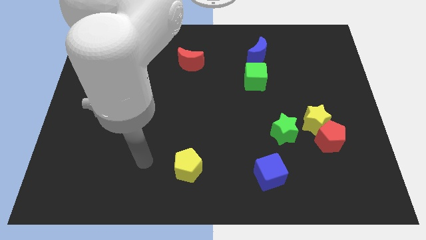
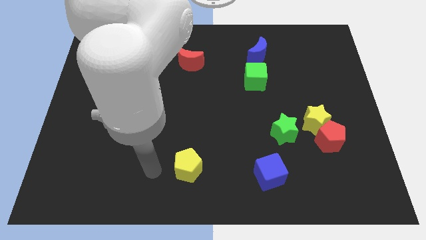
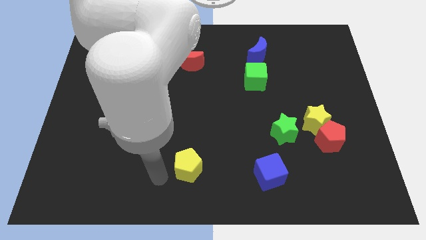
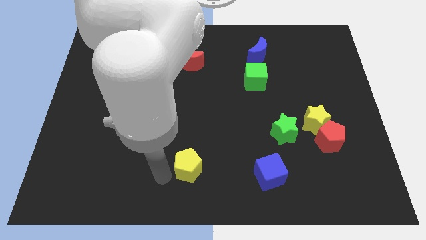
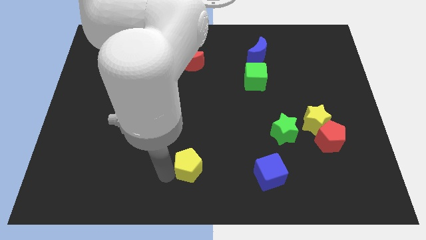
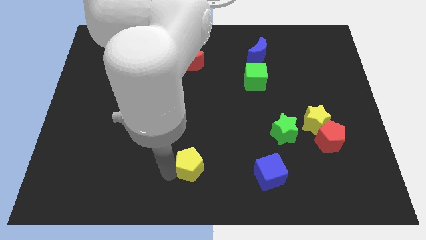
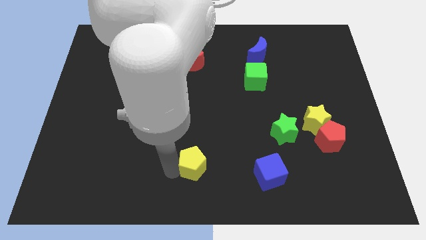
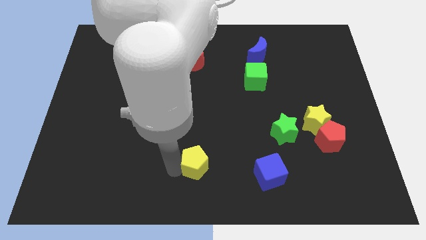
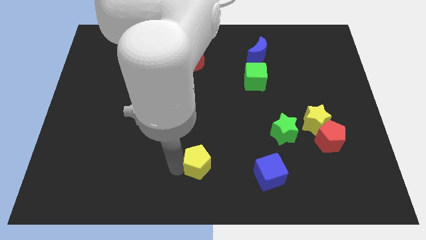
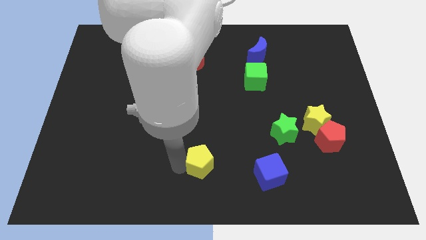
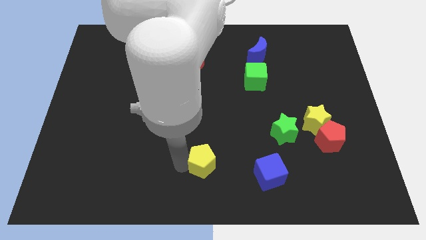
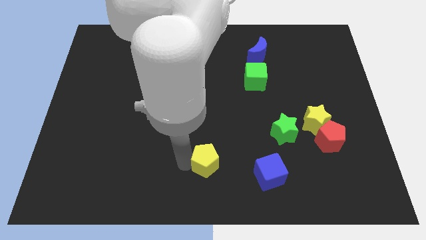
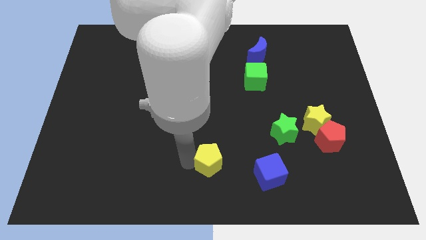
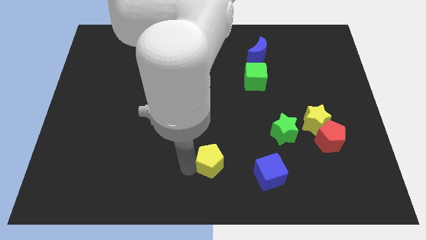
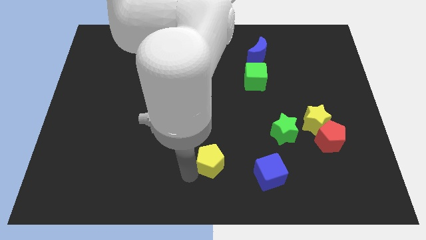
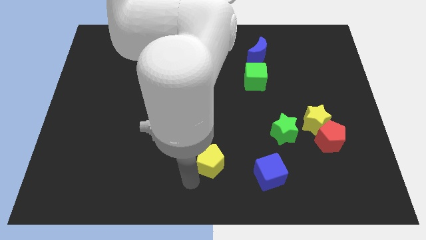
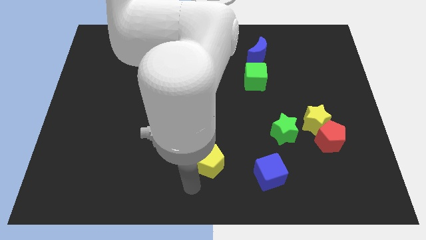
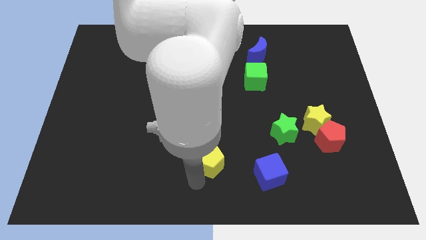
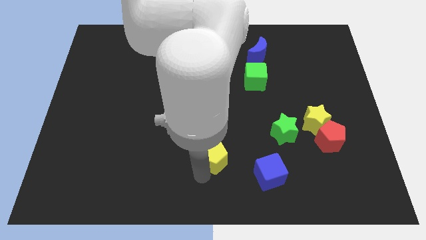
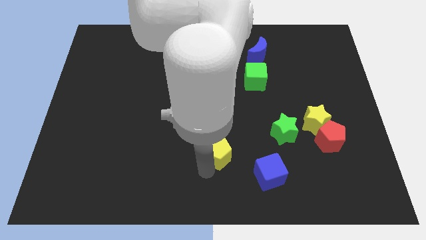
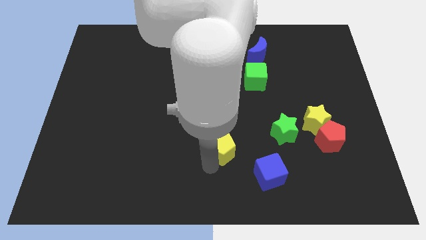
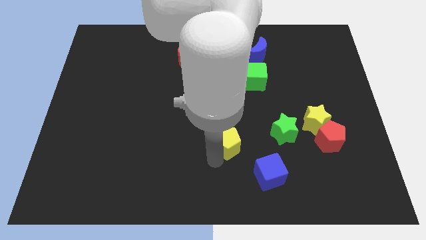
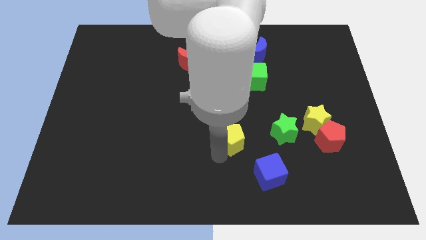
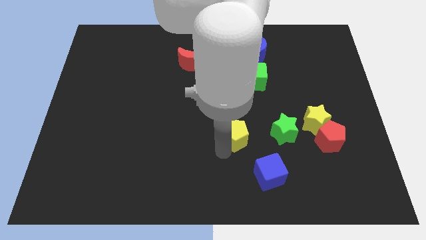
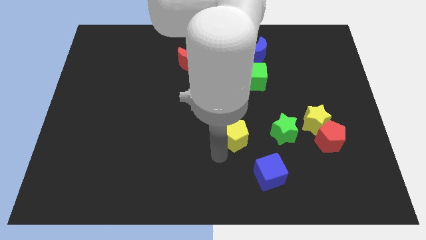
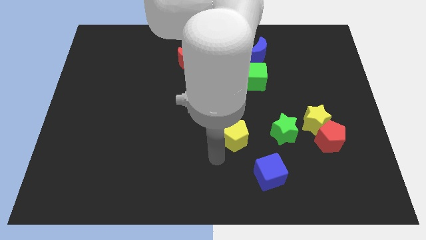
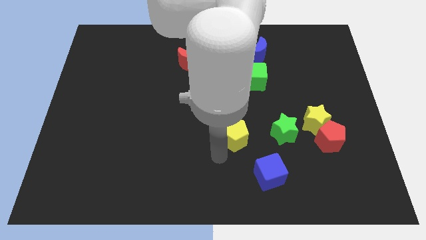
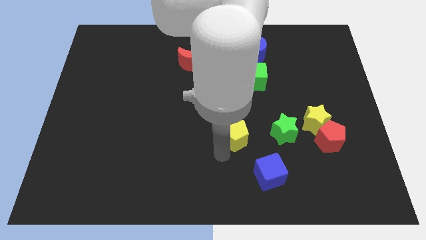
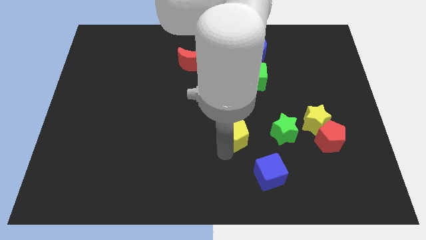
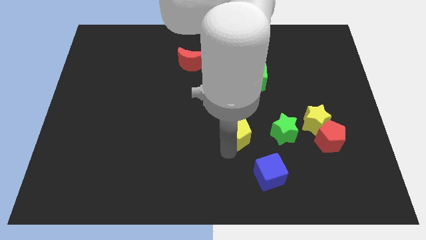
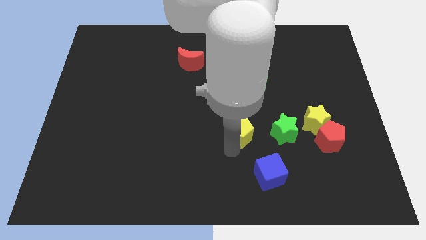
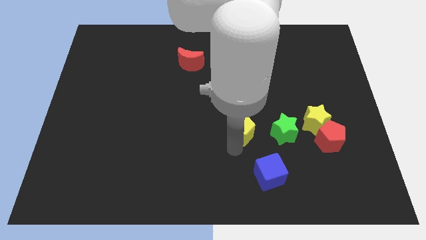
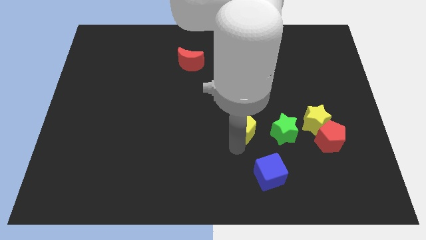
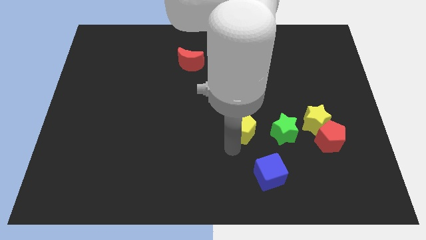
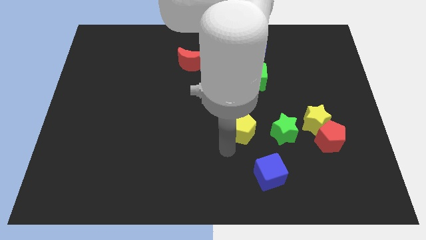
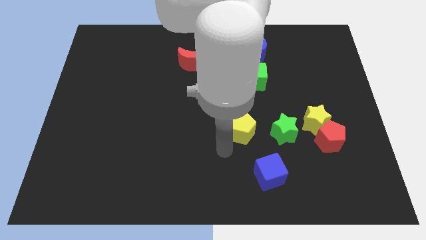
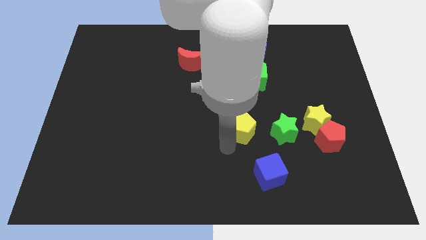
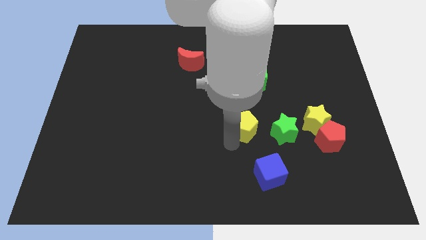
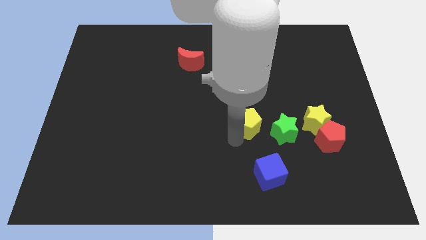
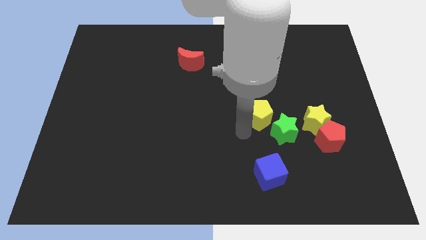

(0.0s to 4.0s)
move the yellow pentagon diagonally upwards and to the right

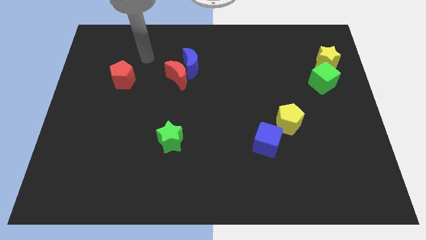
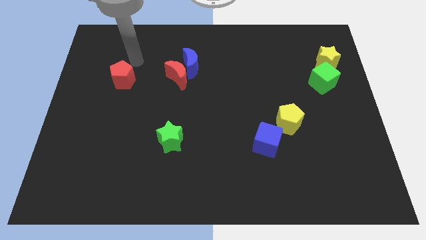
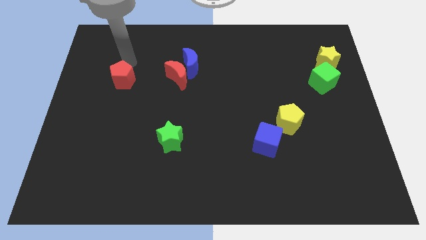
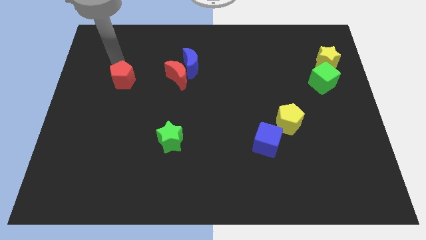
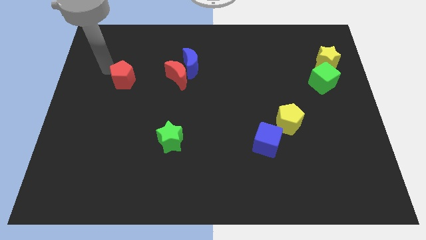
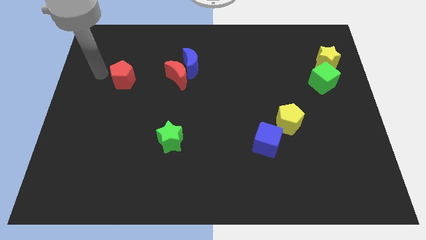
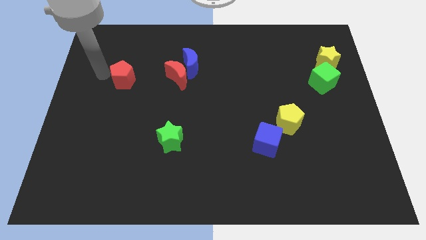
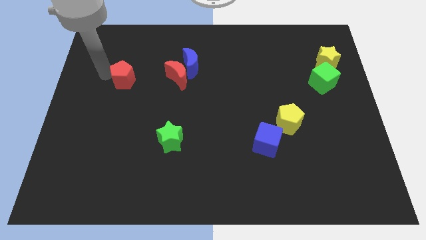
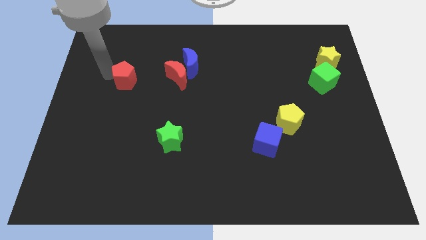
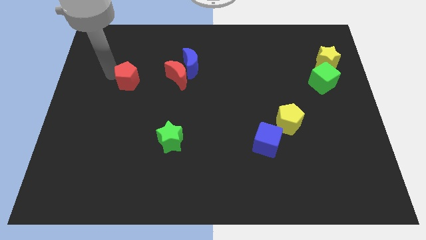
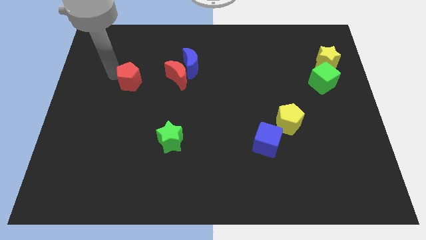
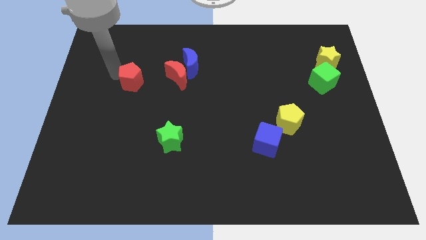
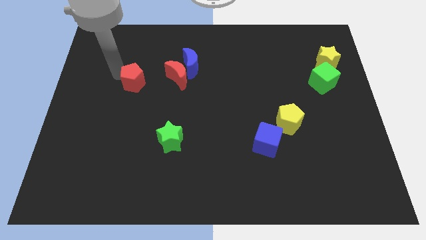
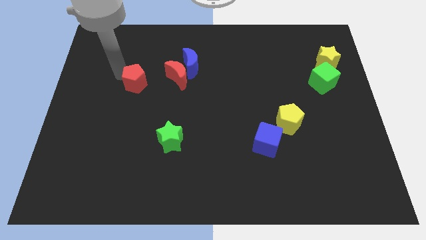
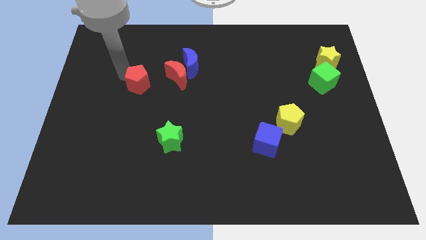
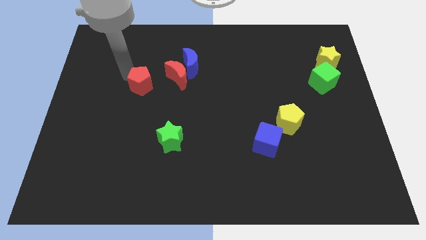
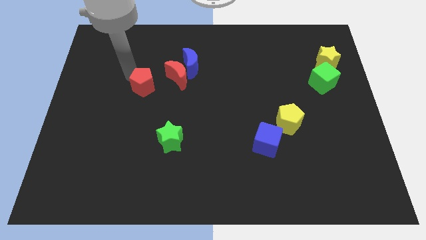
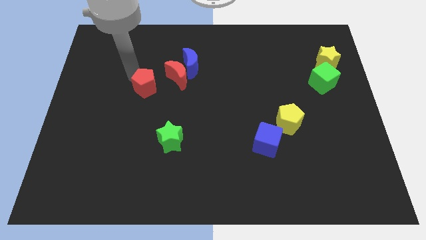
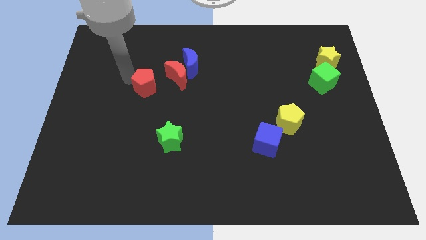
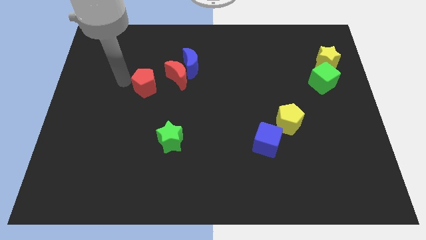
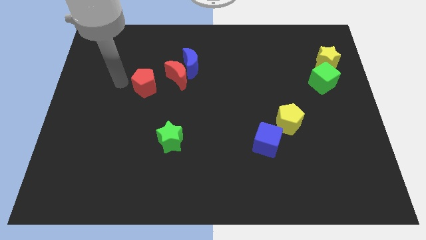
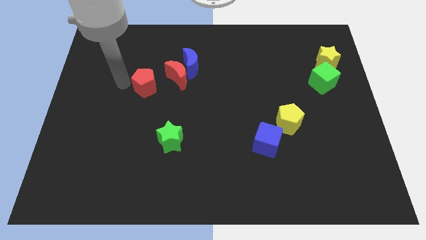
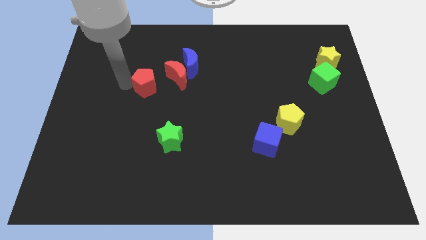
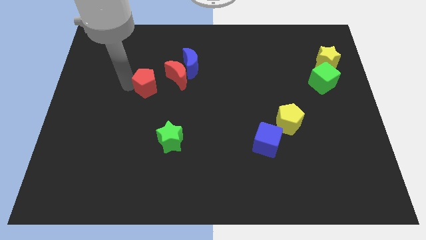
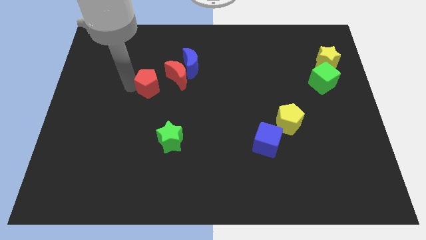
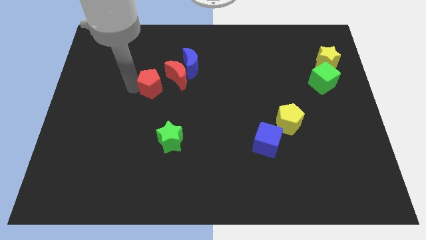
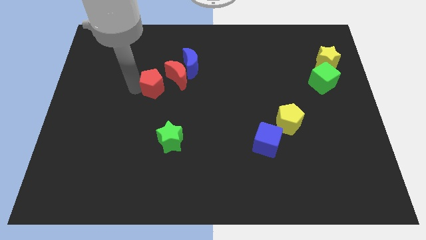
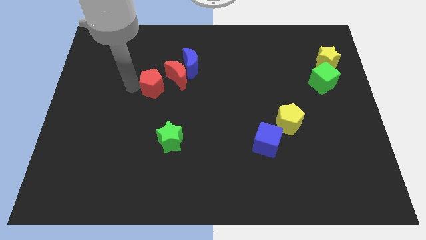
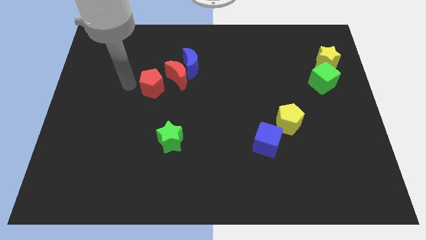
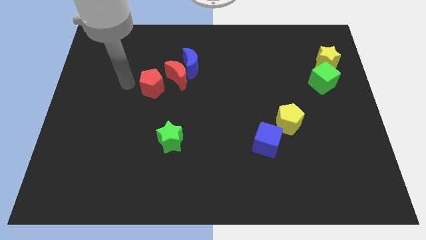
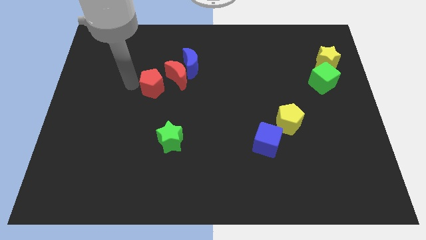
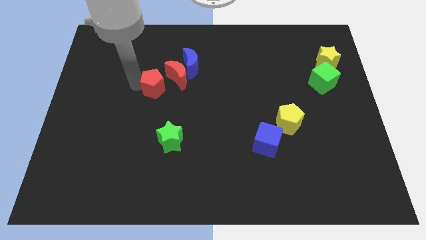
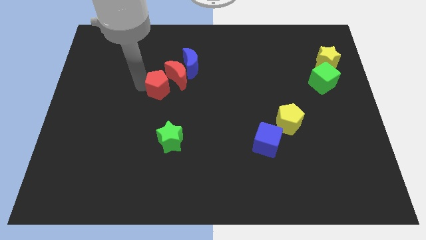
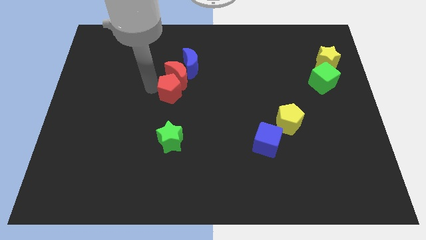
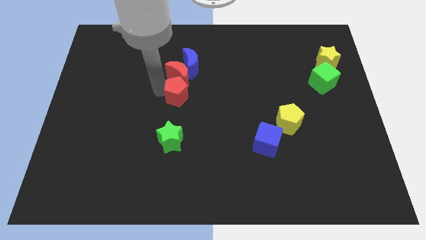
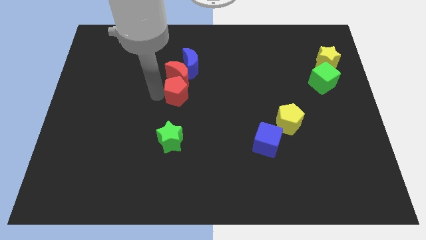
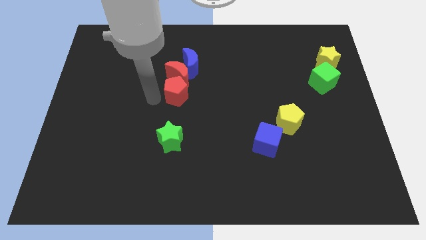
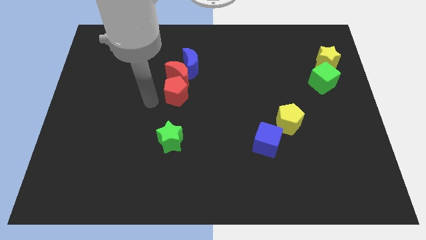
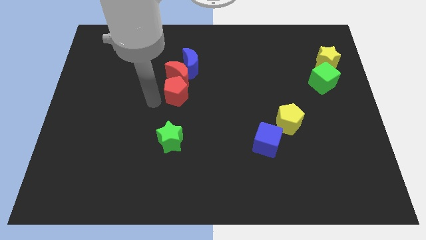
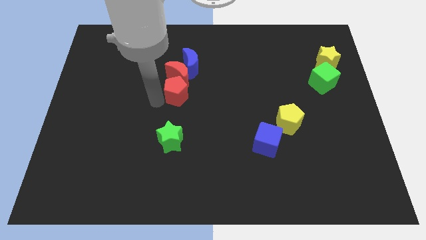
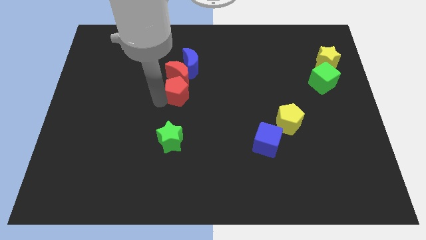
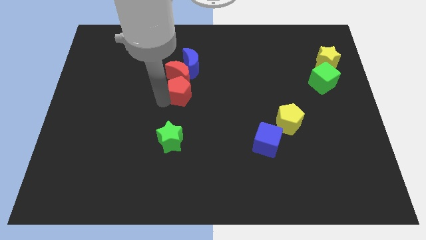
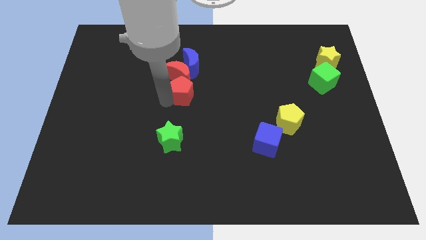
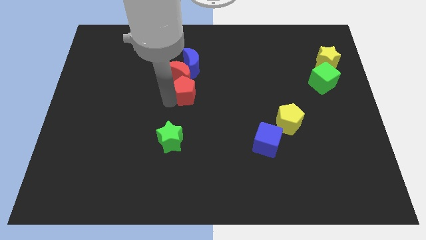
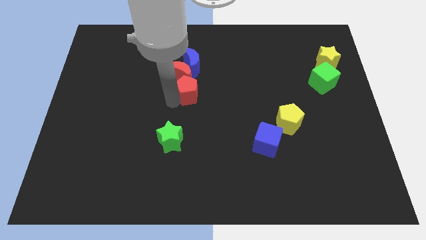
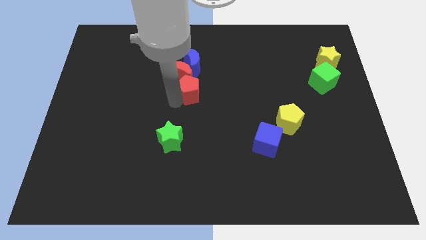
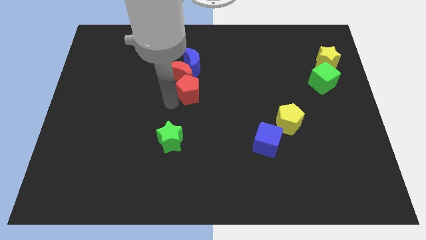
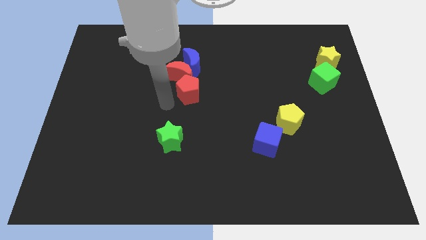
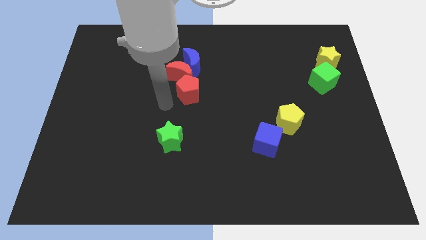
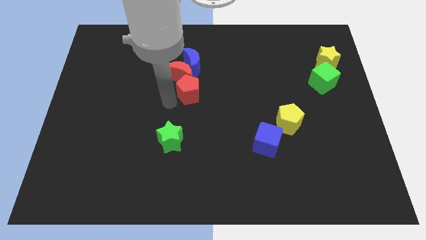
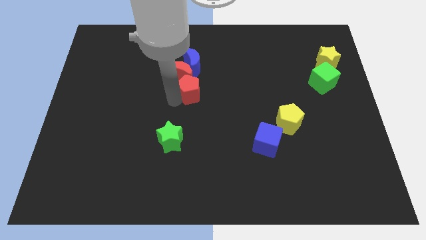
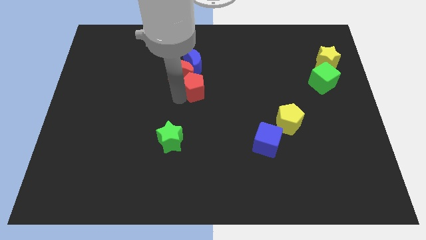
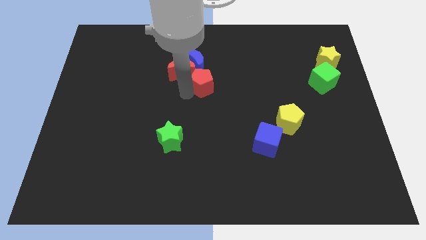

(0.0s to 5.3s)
slide the red pentagon right
